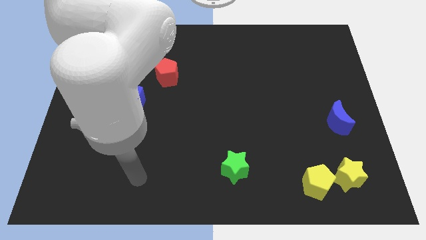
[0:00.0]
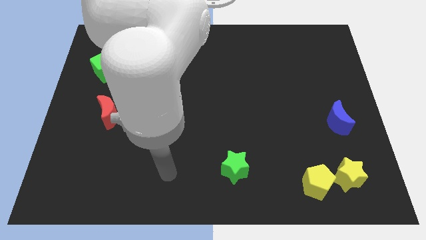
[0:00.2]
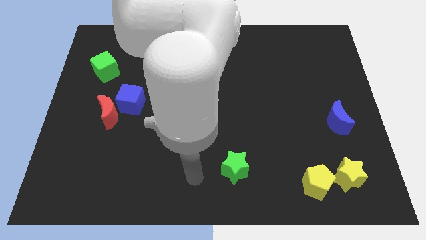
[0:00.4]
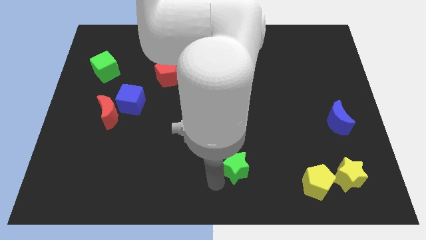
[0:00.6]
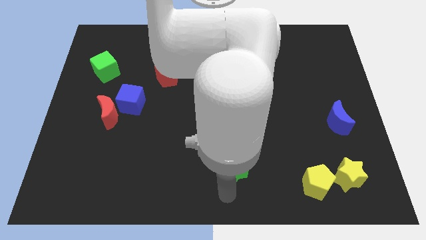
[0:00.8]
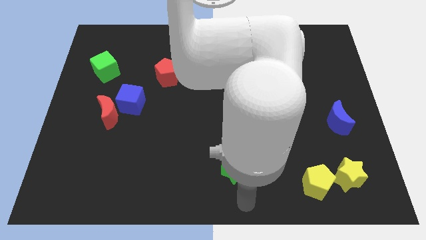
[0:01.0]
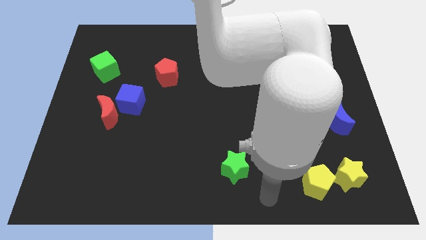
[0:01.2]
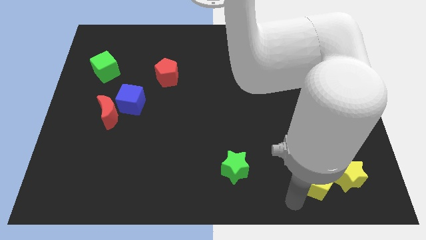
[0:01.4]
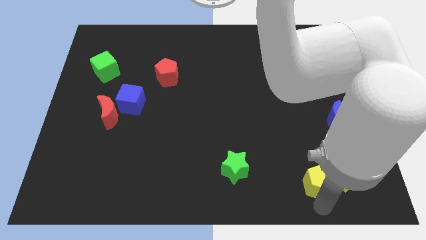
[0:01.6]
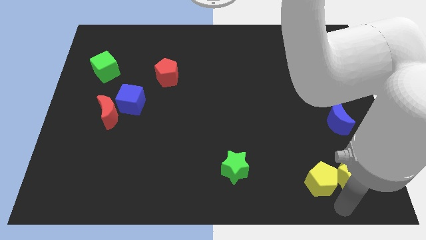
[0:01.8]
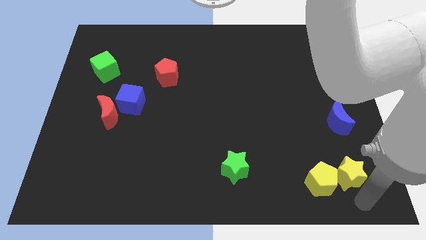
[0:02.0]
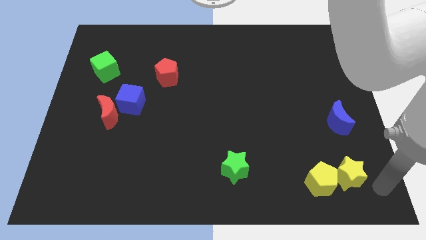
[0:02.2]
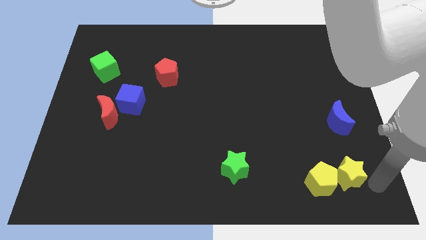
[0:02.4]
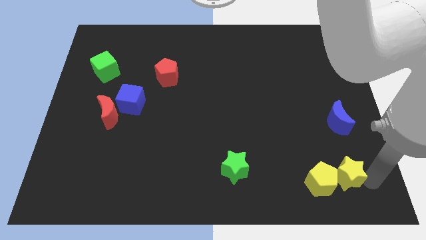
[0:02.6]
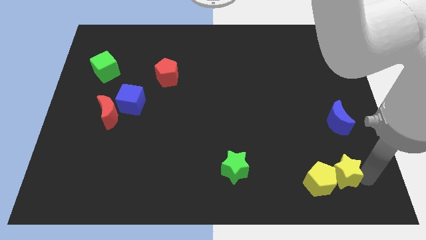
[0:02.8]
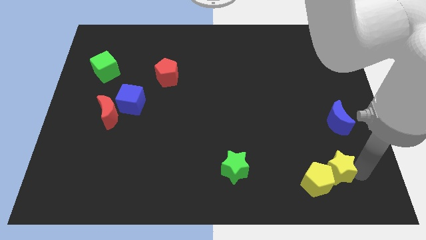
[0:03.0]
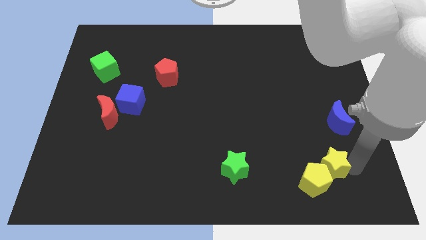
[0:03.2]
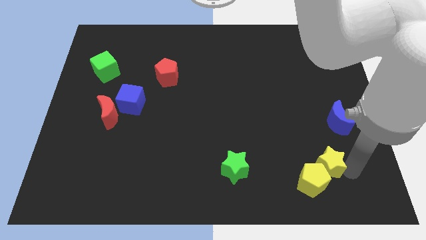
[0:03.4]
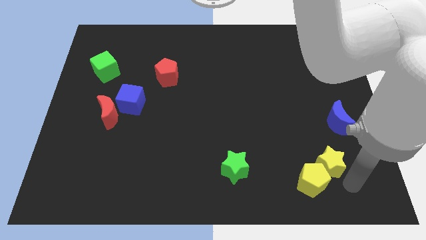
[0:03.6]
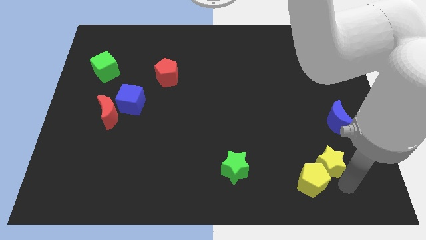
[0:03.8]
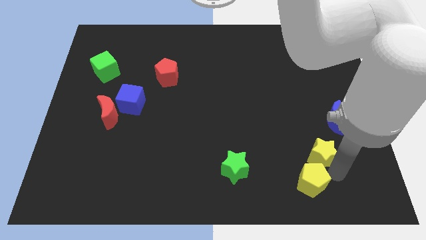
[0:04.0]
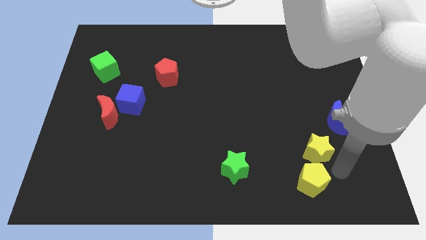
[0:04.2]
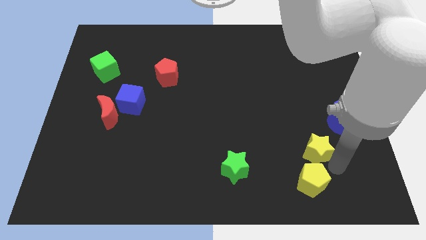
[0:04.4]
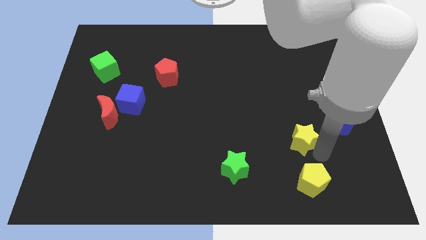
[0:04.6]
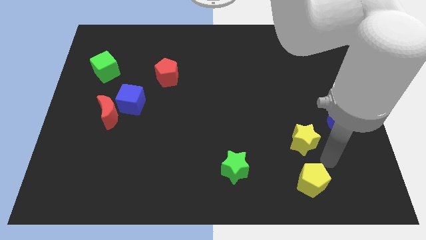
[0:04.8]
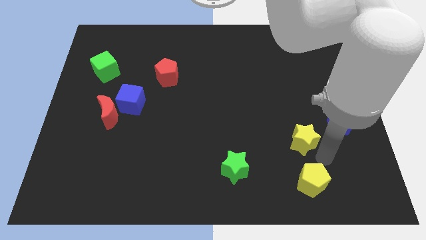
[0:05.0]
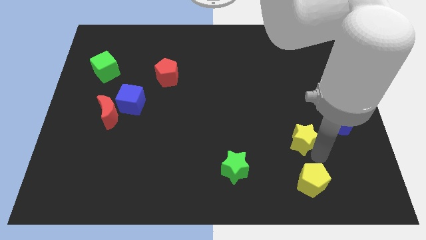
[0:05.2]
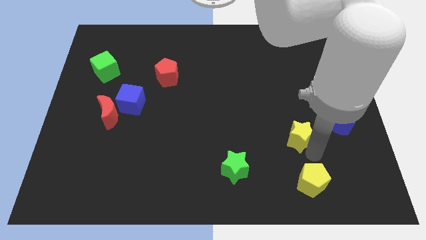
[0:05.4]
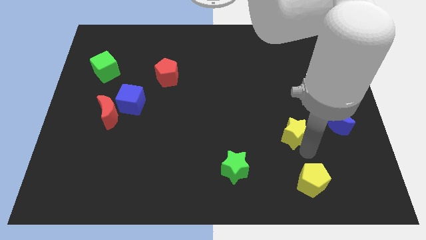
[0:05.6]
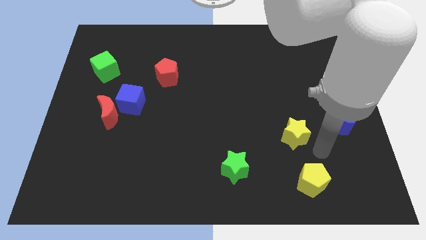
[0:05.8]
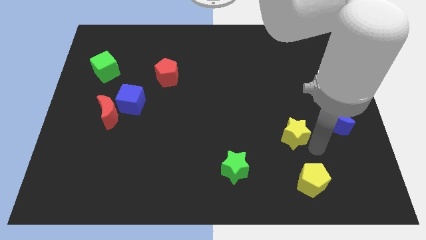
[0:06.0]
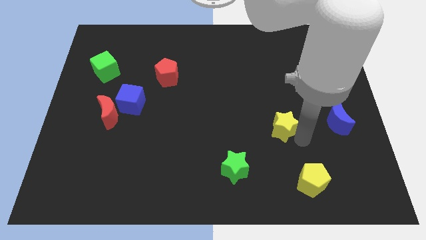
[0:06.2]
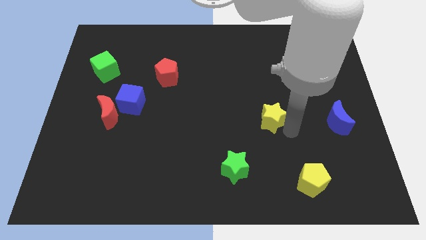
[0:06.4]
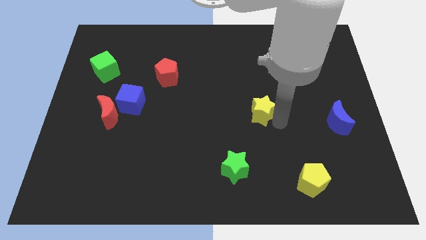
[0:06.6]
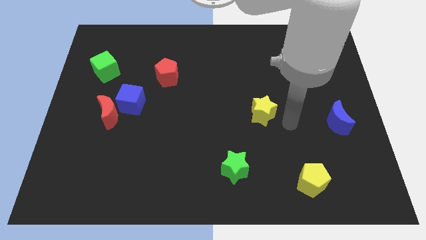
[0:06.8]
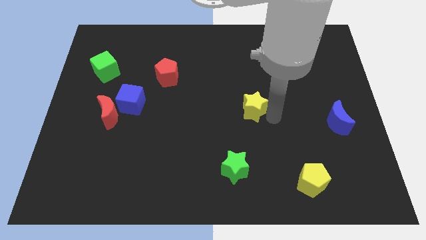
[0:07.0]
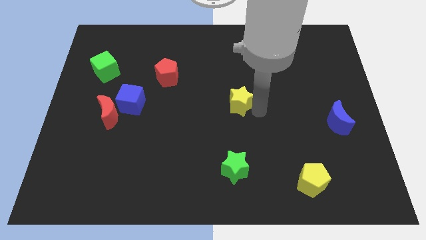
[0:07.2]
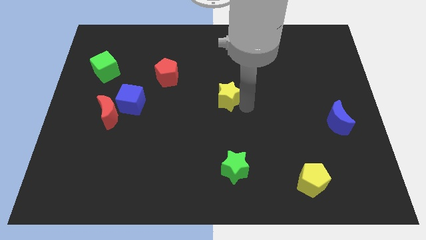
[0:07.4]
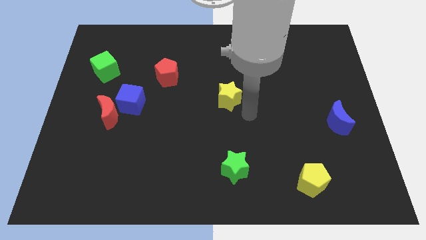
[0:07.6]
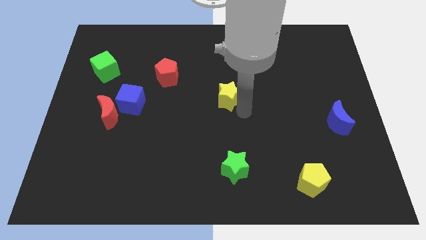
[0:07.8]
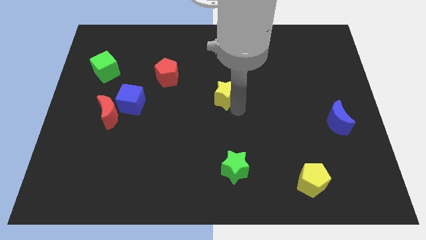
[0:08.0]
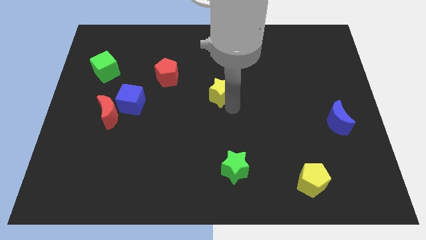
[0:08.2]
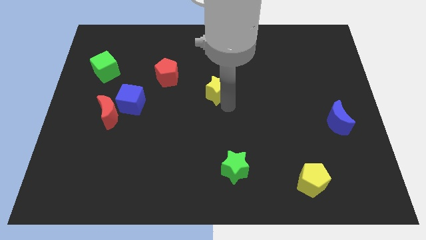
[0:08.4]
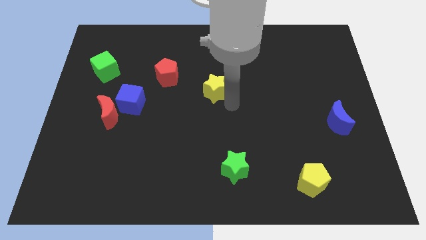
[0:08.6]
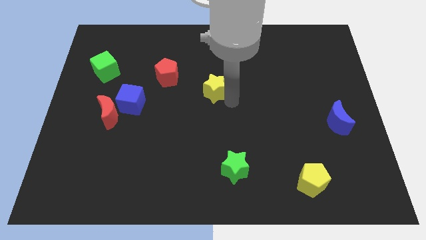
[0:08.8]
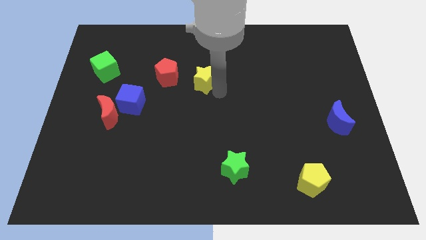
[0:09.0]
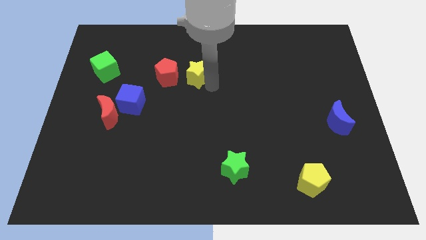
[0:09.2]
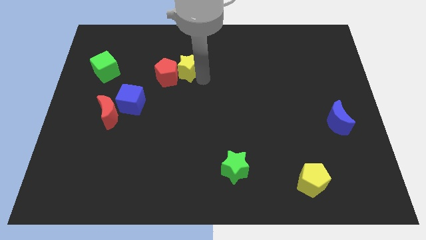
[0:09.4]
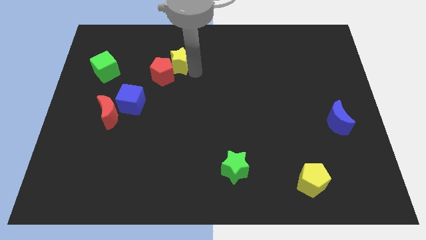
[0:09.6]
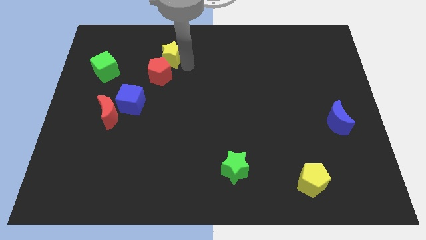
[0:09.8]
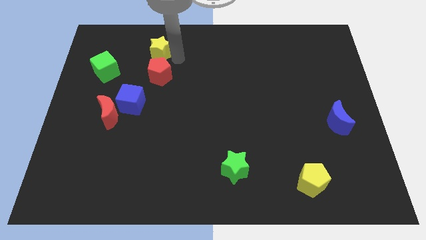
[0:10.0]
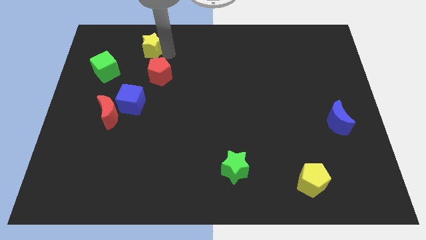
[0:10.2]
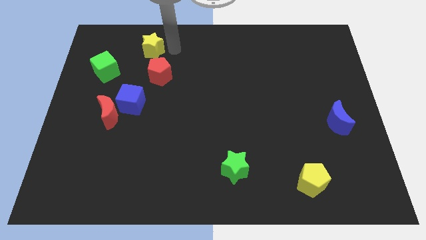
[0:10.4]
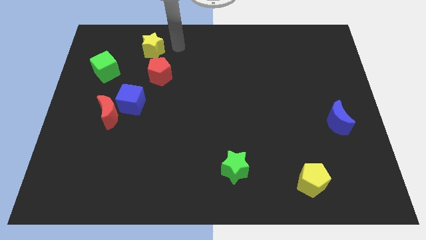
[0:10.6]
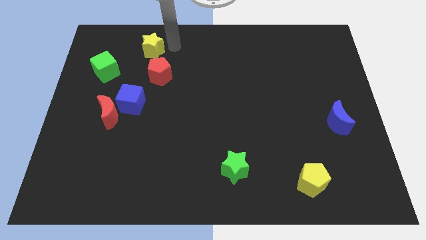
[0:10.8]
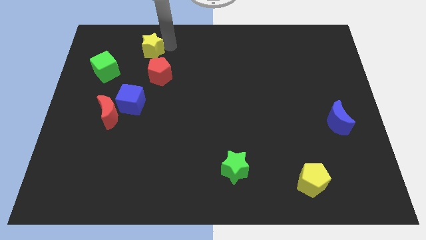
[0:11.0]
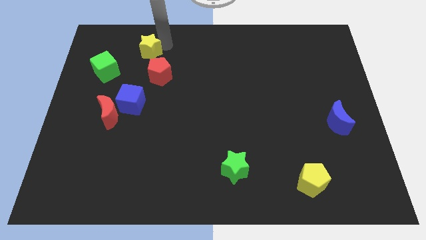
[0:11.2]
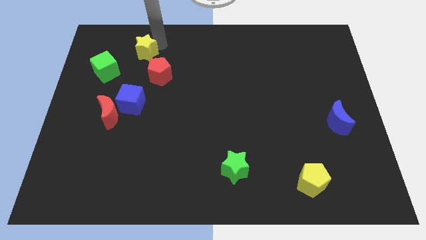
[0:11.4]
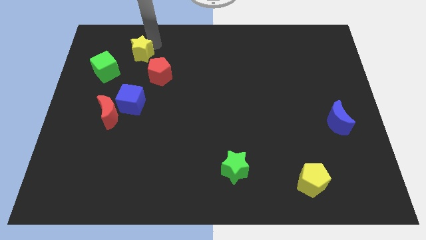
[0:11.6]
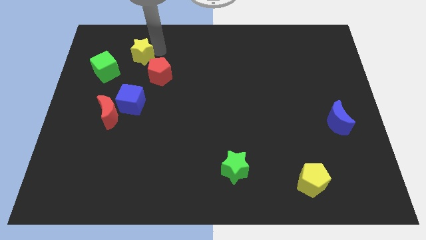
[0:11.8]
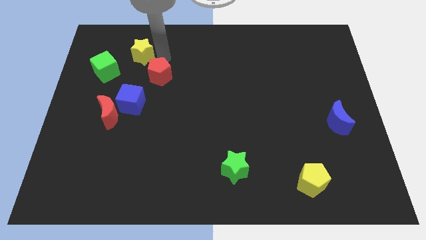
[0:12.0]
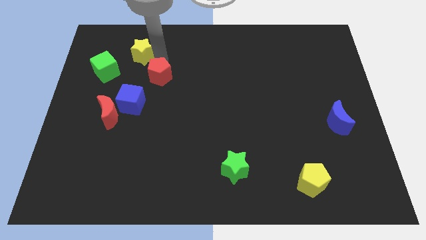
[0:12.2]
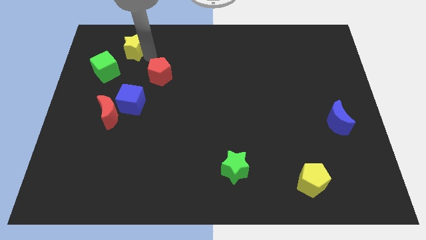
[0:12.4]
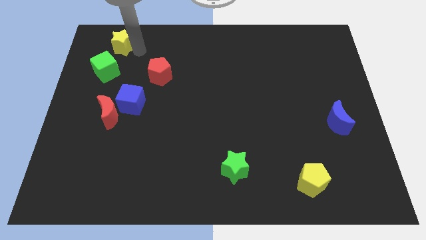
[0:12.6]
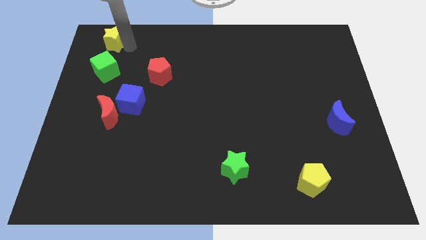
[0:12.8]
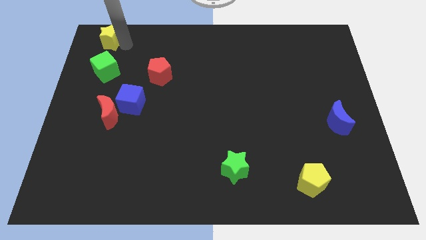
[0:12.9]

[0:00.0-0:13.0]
push the yellow star to the top left corner
